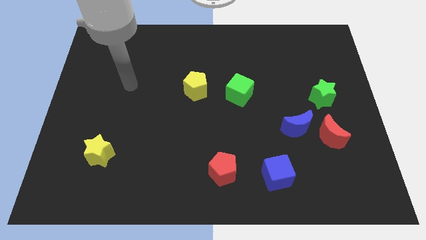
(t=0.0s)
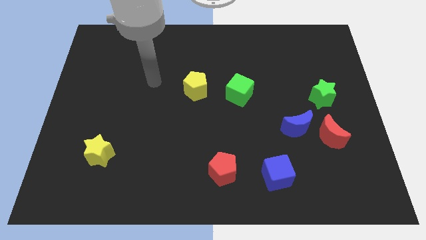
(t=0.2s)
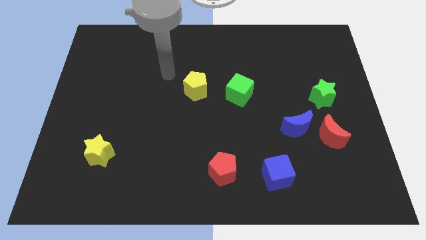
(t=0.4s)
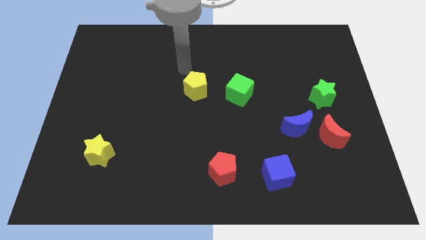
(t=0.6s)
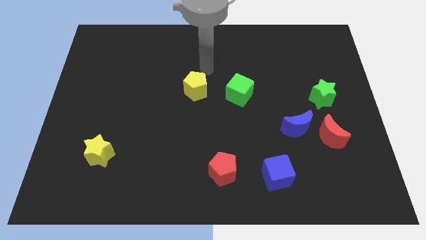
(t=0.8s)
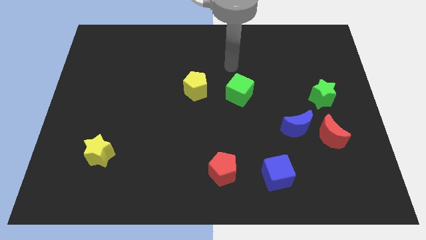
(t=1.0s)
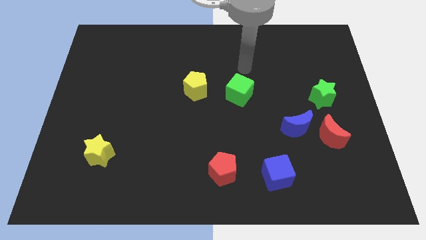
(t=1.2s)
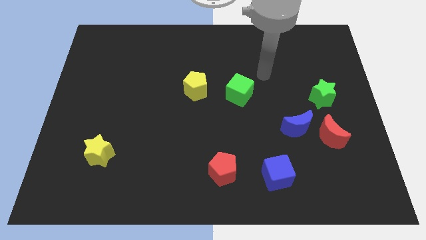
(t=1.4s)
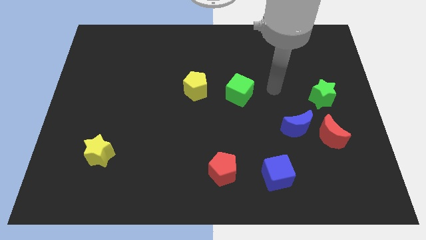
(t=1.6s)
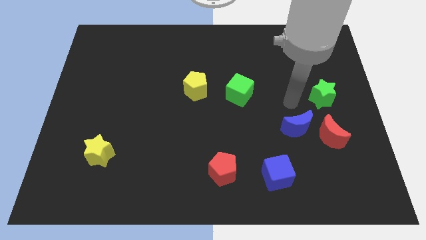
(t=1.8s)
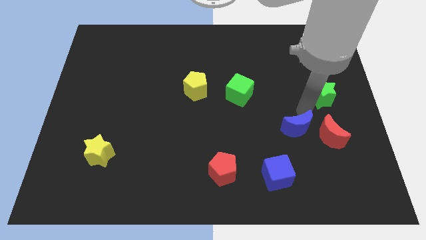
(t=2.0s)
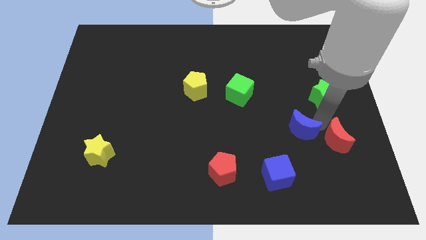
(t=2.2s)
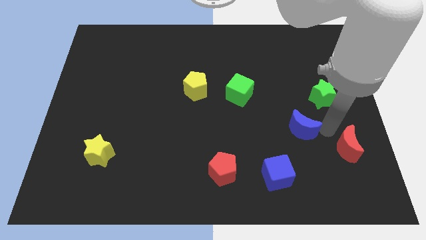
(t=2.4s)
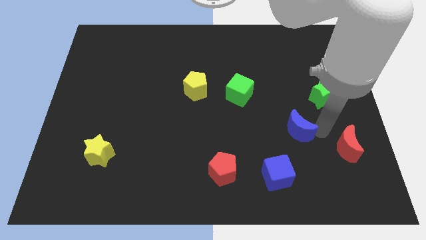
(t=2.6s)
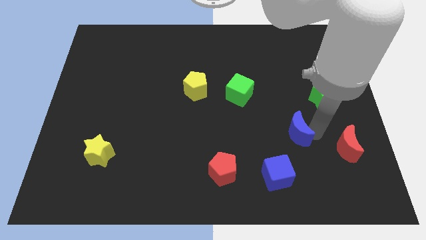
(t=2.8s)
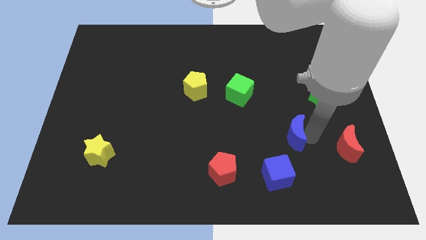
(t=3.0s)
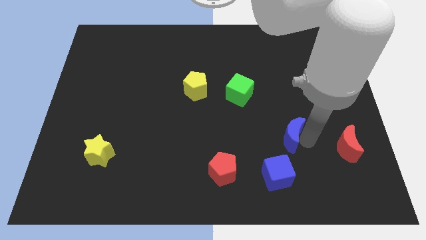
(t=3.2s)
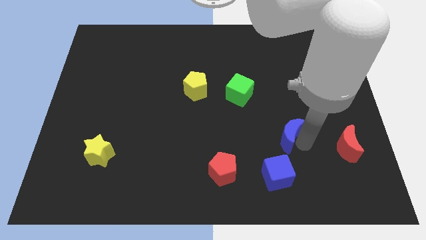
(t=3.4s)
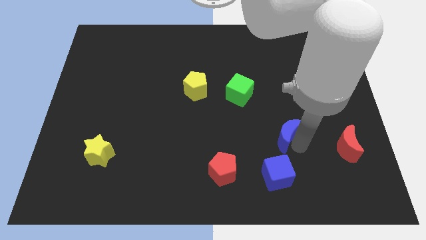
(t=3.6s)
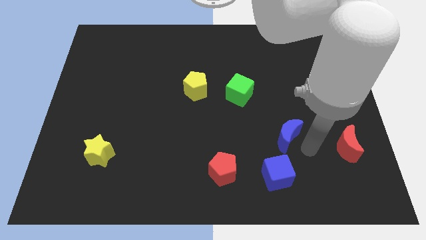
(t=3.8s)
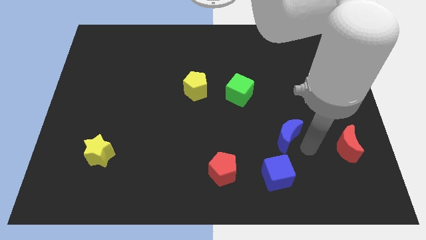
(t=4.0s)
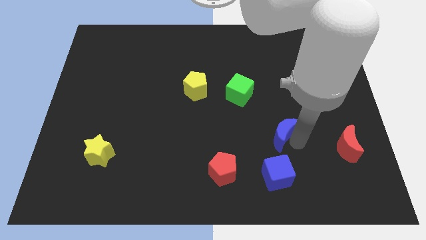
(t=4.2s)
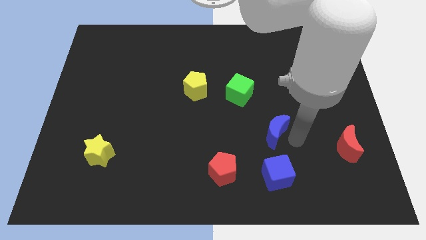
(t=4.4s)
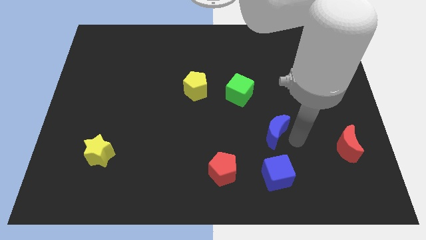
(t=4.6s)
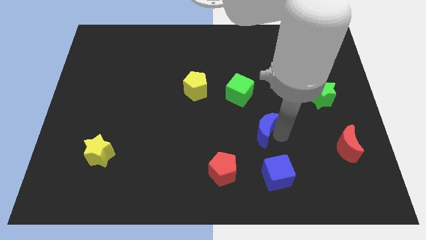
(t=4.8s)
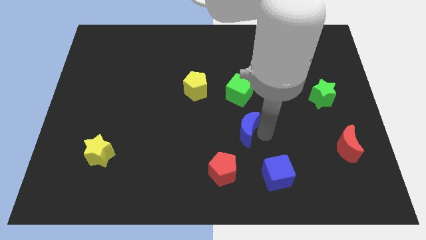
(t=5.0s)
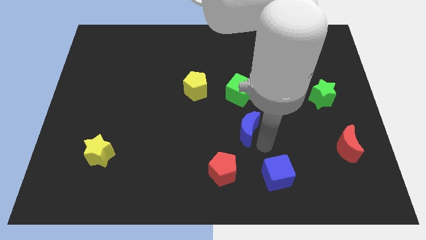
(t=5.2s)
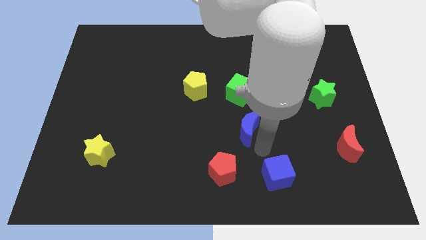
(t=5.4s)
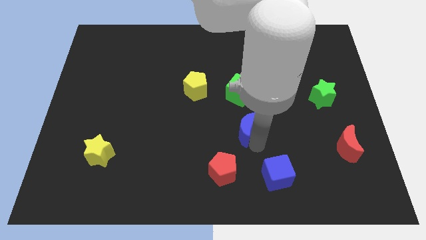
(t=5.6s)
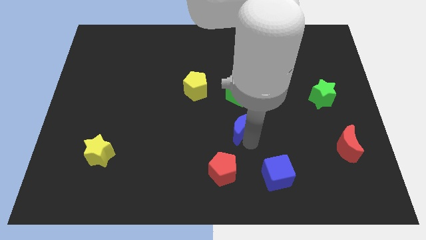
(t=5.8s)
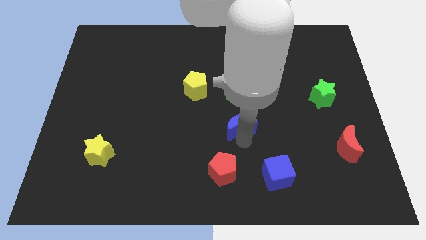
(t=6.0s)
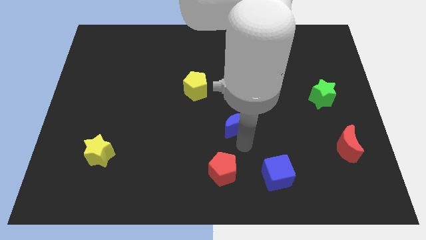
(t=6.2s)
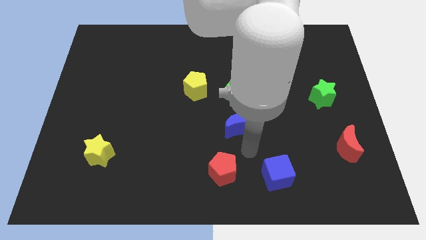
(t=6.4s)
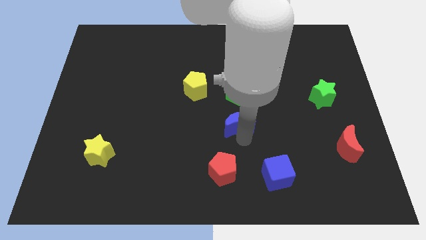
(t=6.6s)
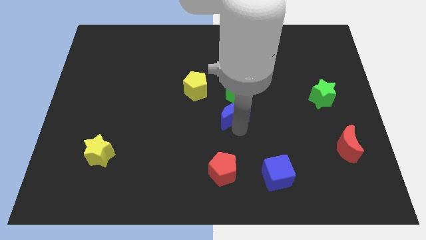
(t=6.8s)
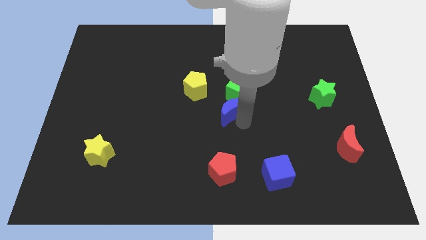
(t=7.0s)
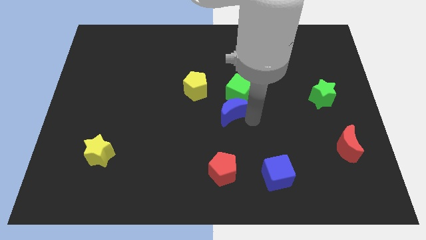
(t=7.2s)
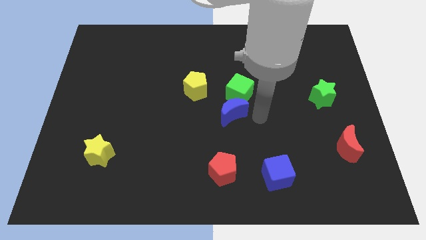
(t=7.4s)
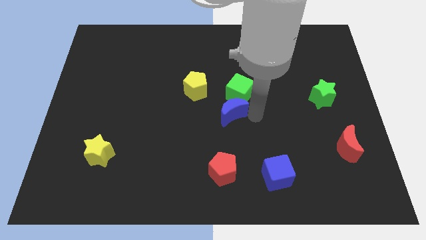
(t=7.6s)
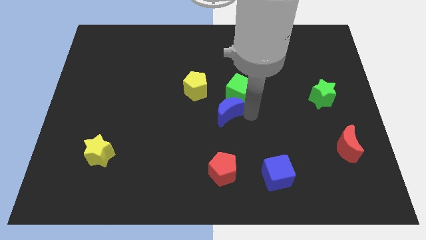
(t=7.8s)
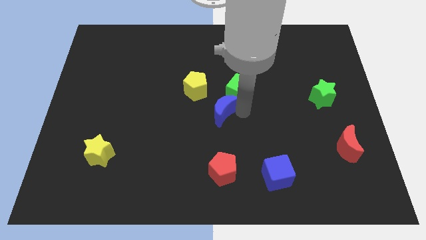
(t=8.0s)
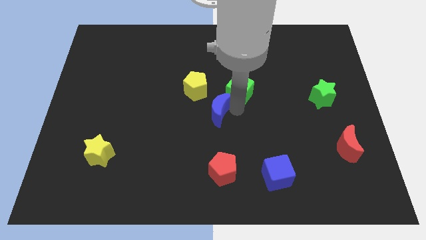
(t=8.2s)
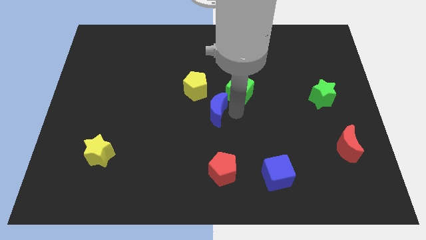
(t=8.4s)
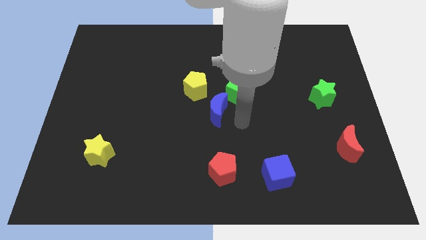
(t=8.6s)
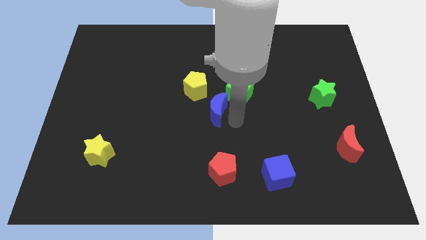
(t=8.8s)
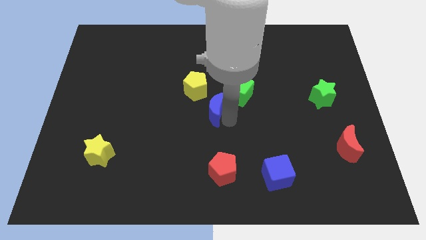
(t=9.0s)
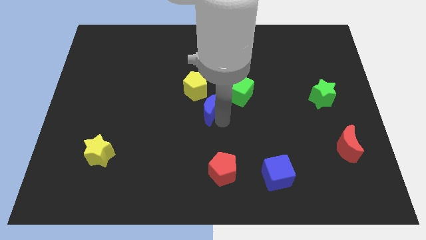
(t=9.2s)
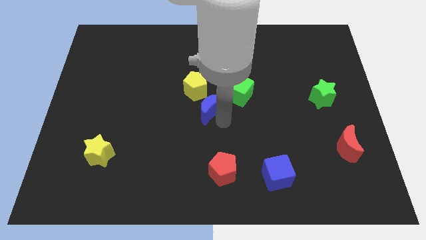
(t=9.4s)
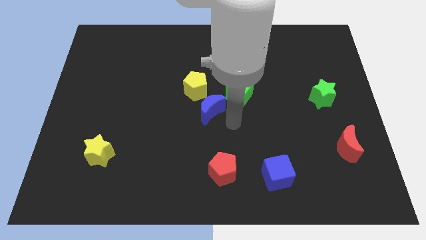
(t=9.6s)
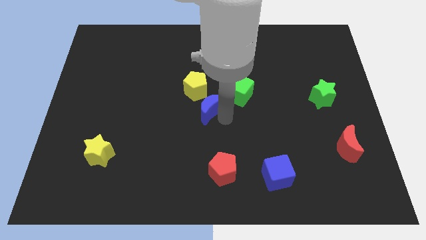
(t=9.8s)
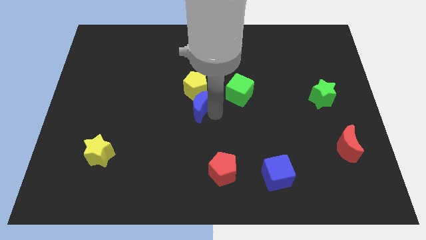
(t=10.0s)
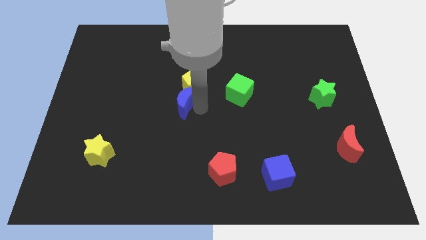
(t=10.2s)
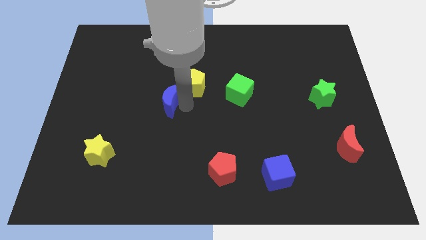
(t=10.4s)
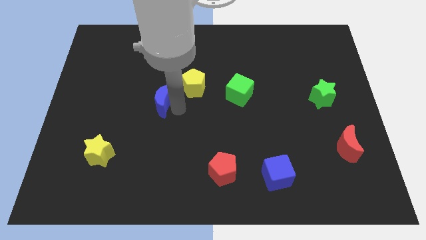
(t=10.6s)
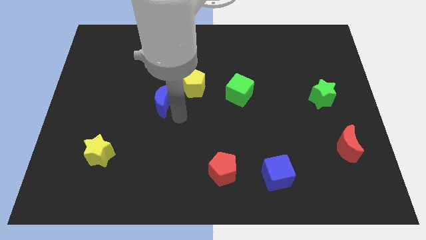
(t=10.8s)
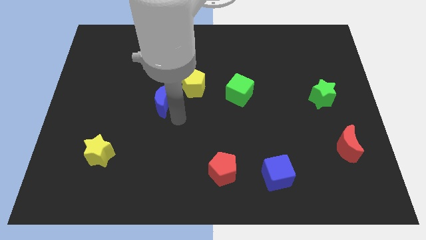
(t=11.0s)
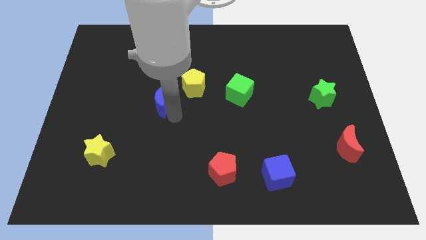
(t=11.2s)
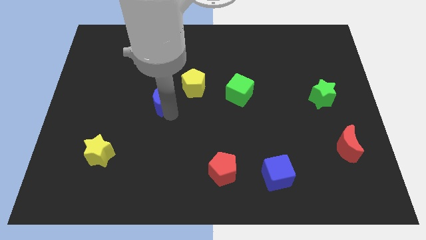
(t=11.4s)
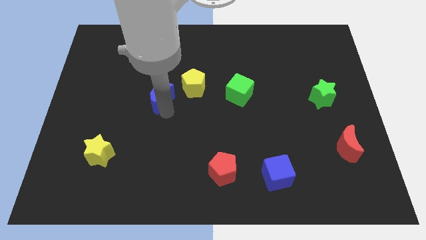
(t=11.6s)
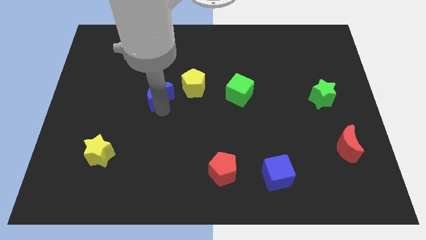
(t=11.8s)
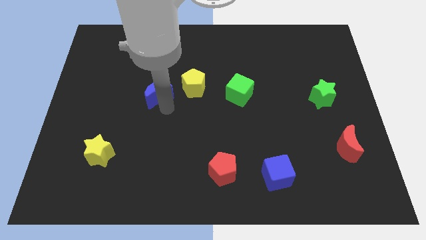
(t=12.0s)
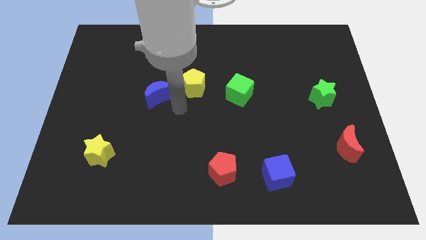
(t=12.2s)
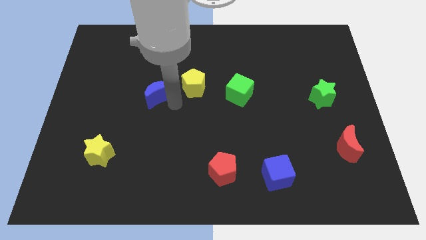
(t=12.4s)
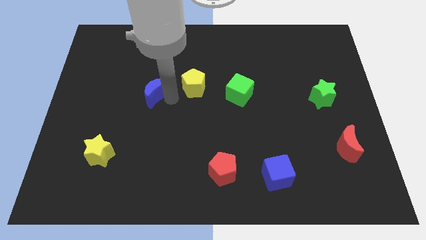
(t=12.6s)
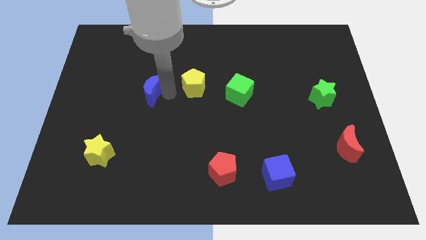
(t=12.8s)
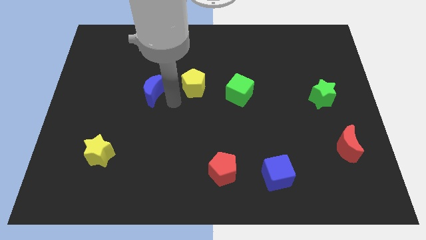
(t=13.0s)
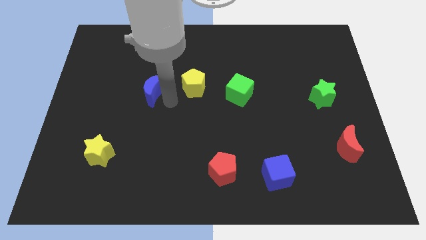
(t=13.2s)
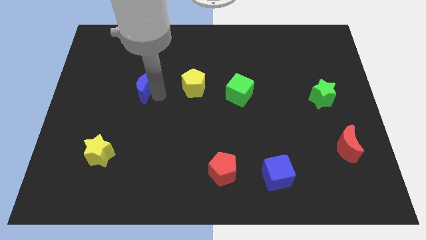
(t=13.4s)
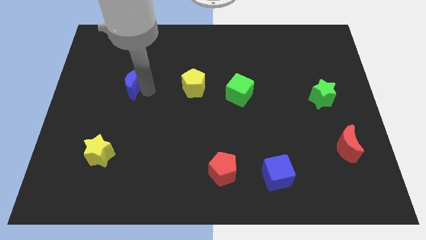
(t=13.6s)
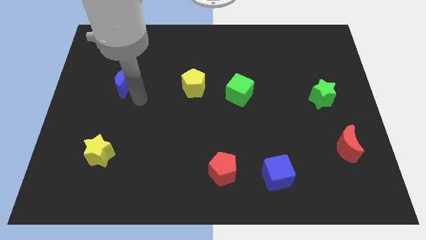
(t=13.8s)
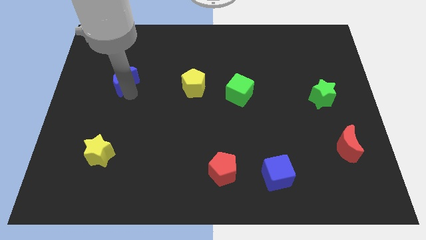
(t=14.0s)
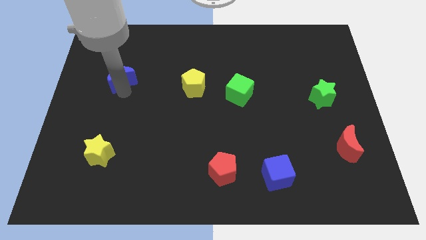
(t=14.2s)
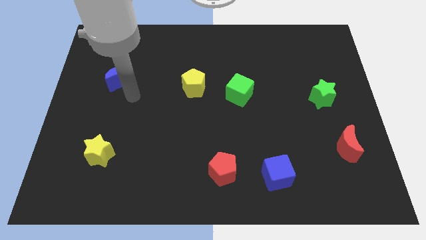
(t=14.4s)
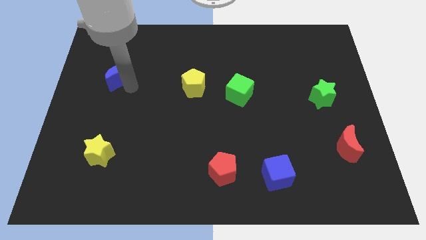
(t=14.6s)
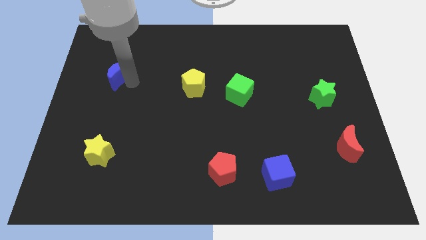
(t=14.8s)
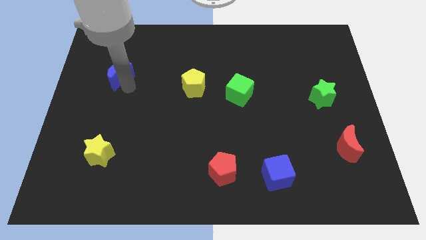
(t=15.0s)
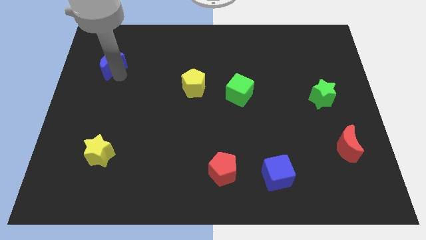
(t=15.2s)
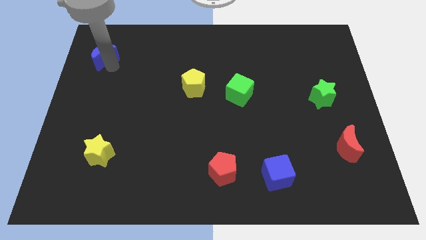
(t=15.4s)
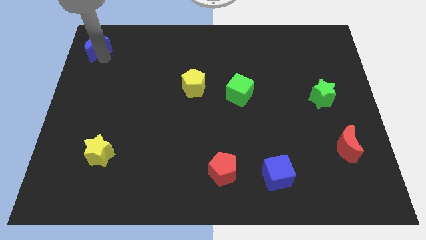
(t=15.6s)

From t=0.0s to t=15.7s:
slide the blue moon to the upper left corner
